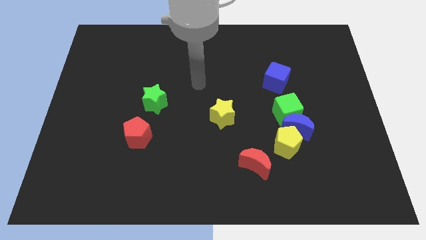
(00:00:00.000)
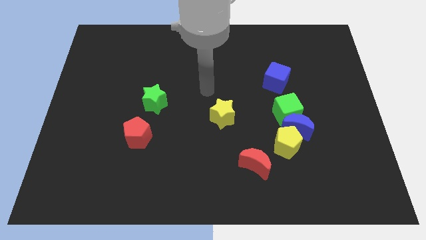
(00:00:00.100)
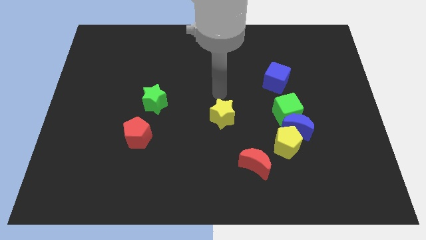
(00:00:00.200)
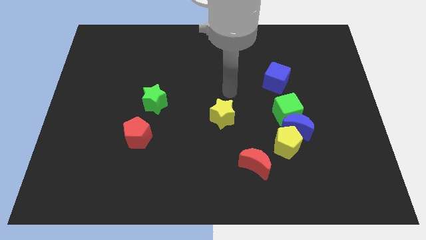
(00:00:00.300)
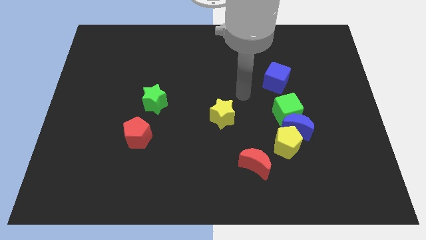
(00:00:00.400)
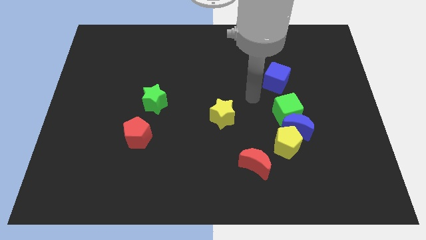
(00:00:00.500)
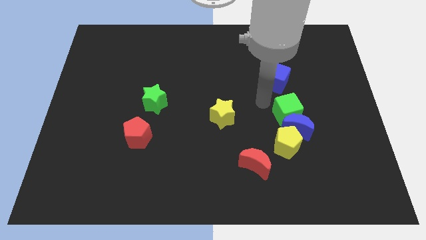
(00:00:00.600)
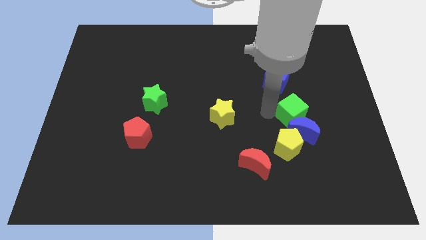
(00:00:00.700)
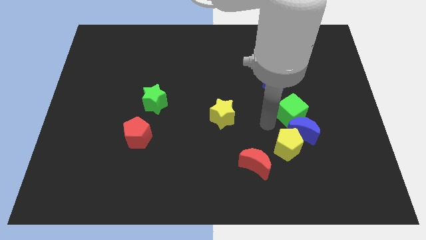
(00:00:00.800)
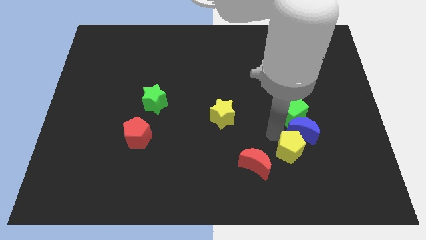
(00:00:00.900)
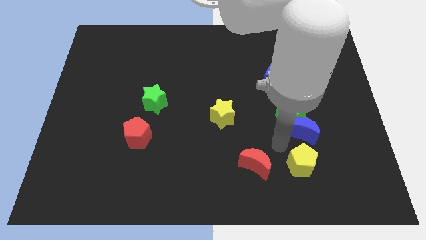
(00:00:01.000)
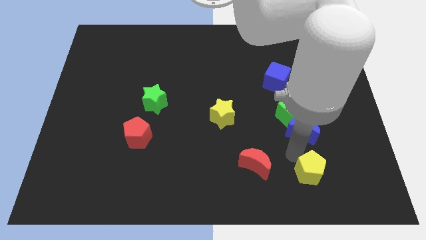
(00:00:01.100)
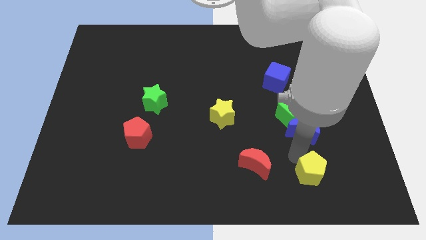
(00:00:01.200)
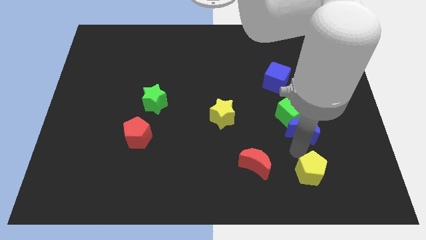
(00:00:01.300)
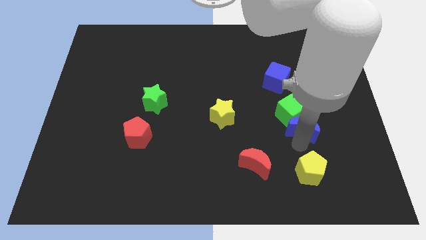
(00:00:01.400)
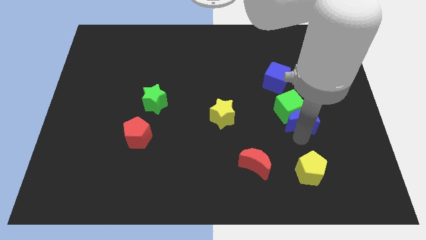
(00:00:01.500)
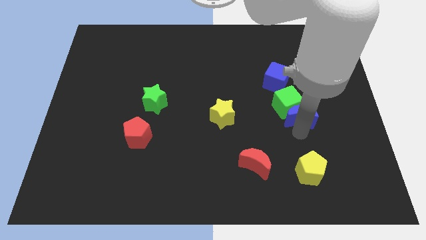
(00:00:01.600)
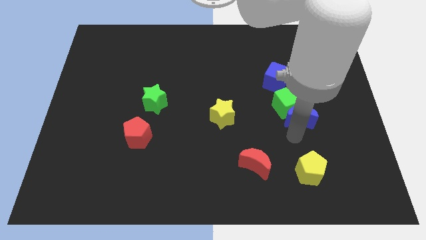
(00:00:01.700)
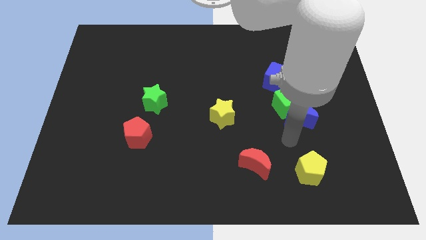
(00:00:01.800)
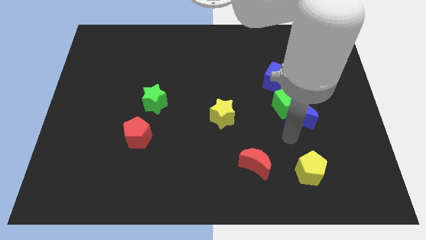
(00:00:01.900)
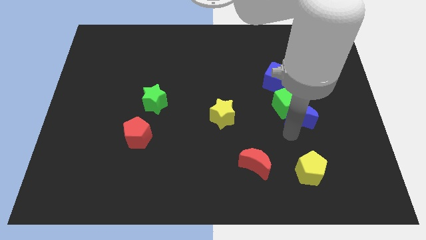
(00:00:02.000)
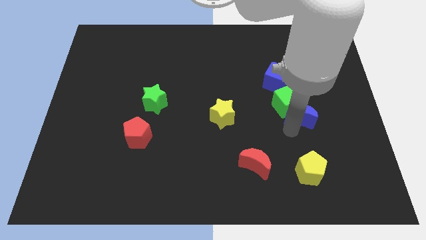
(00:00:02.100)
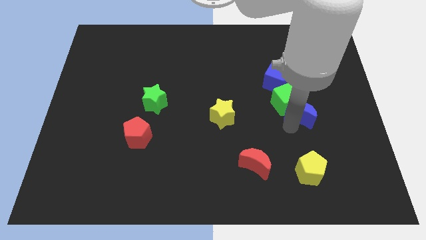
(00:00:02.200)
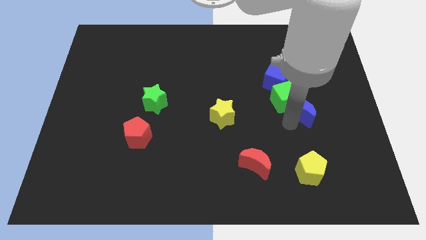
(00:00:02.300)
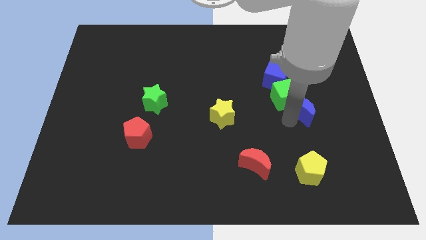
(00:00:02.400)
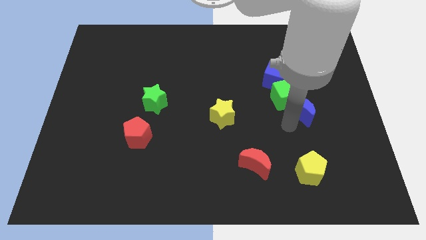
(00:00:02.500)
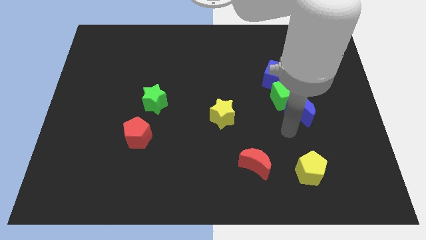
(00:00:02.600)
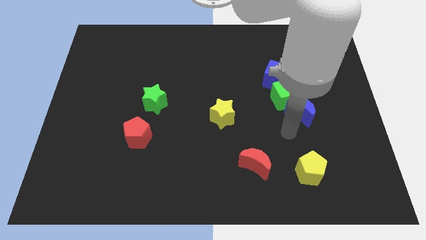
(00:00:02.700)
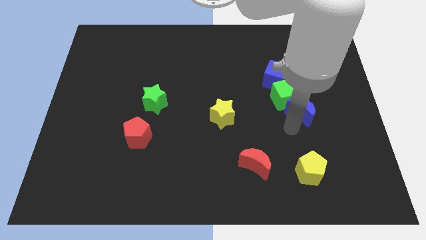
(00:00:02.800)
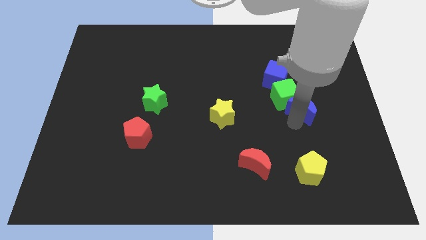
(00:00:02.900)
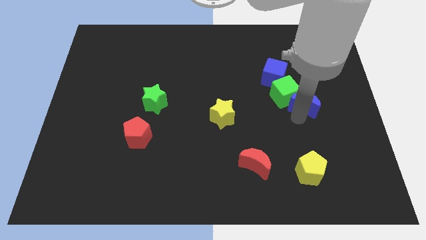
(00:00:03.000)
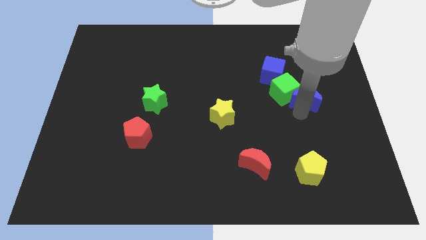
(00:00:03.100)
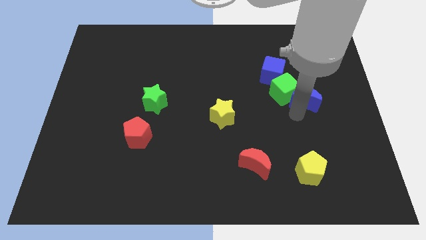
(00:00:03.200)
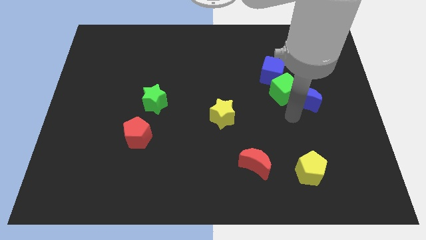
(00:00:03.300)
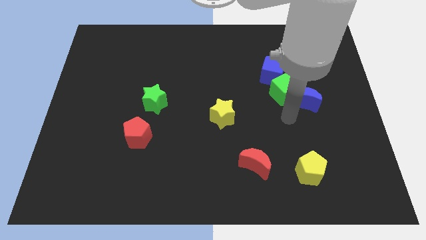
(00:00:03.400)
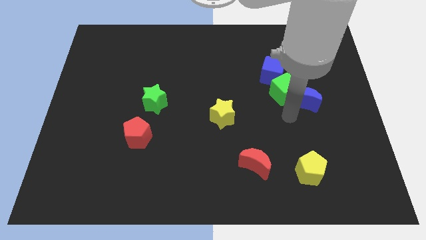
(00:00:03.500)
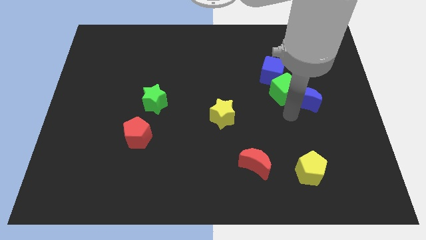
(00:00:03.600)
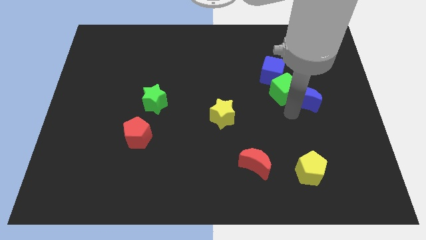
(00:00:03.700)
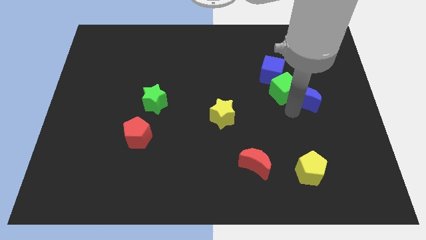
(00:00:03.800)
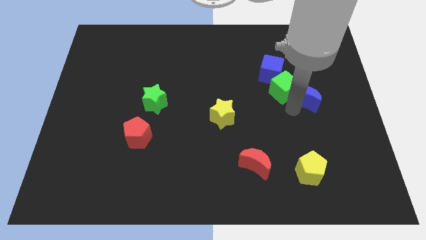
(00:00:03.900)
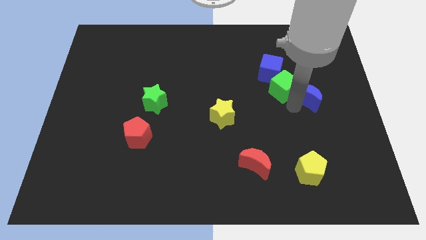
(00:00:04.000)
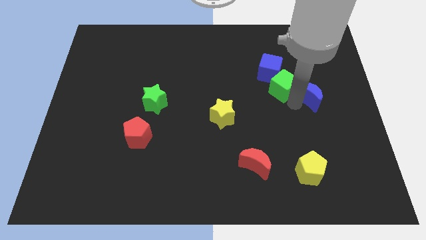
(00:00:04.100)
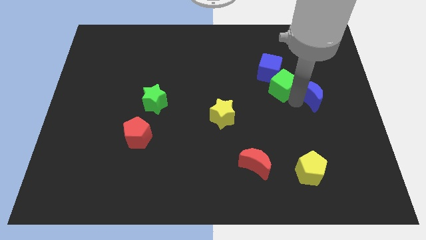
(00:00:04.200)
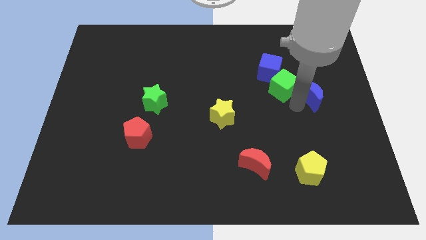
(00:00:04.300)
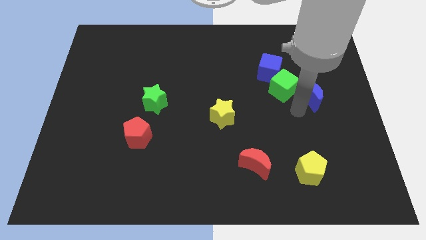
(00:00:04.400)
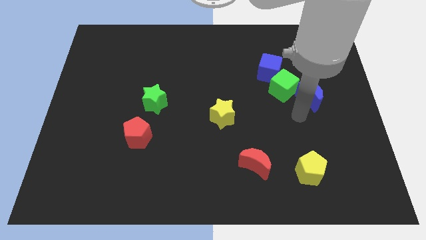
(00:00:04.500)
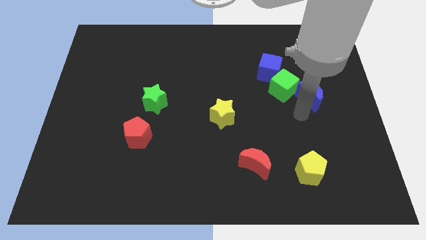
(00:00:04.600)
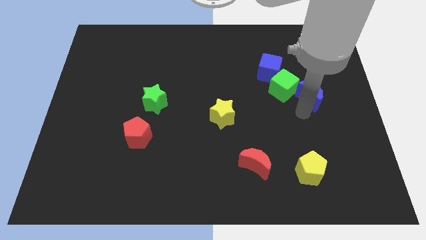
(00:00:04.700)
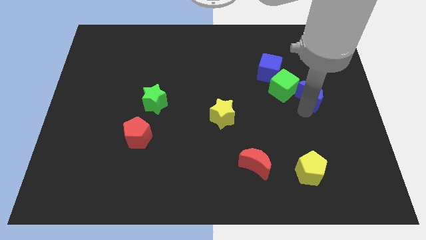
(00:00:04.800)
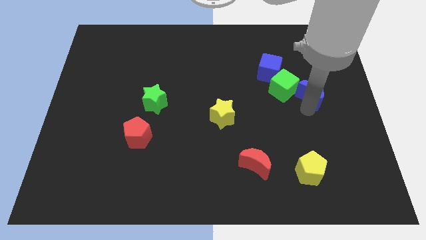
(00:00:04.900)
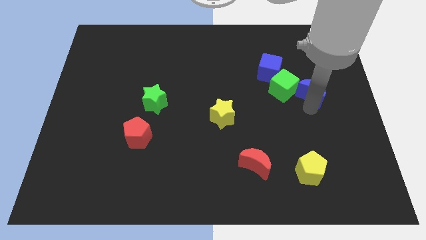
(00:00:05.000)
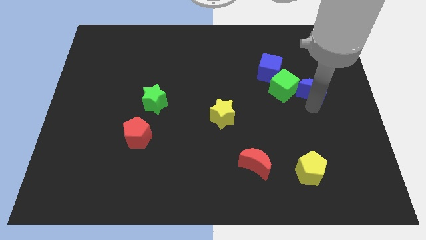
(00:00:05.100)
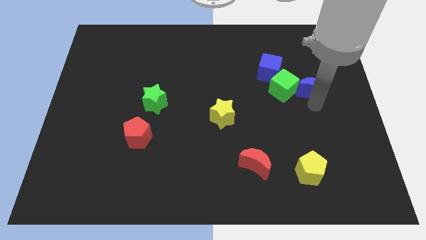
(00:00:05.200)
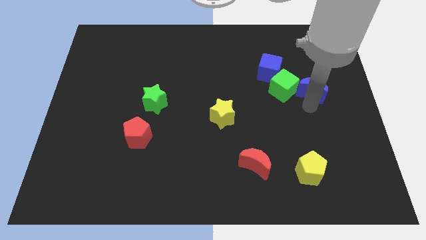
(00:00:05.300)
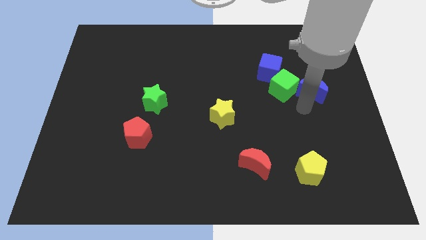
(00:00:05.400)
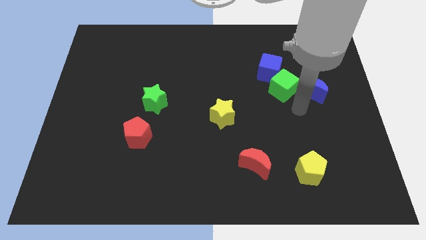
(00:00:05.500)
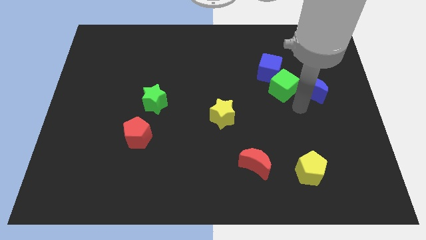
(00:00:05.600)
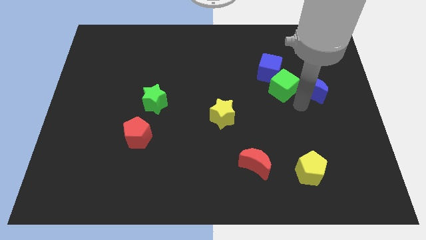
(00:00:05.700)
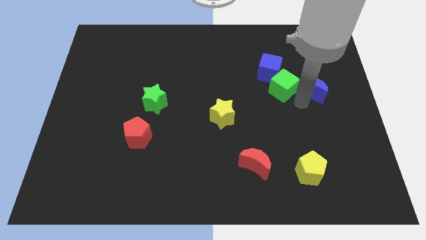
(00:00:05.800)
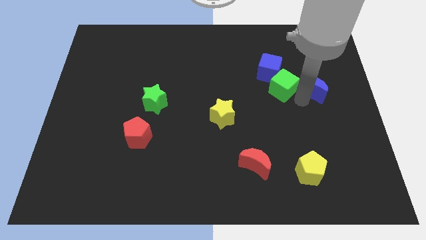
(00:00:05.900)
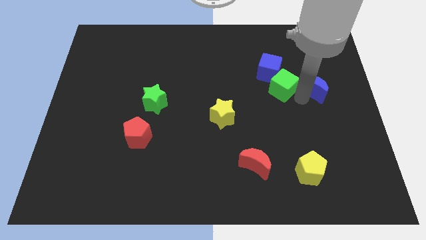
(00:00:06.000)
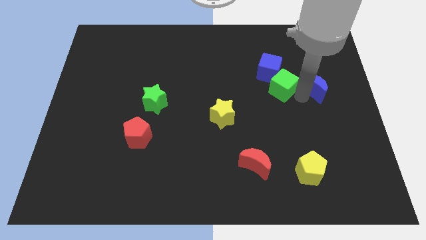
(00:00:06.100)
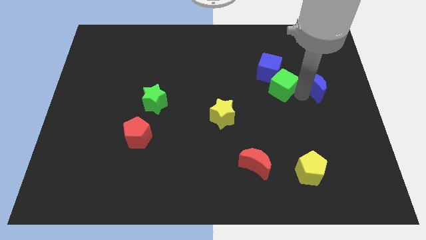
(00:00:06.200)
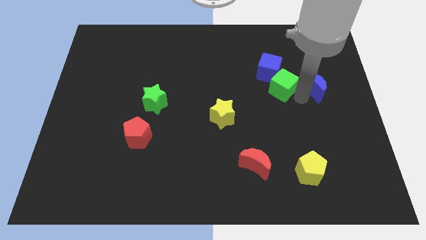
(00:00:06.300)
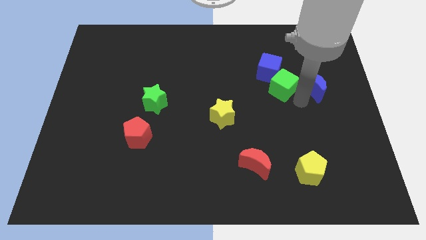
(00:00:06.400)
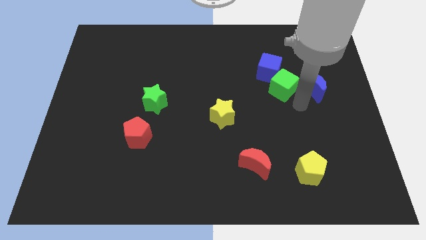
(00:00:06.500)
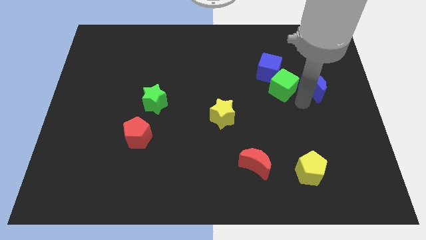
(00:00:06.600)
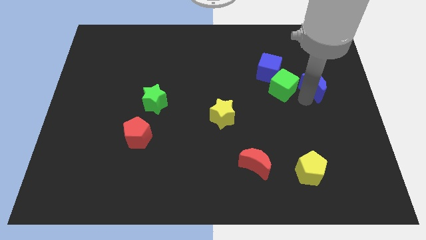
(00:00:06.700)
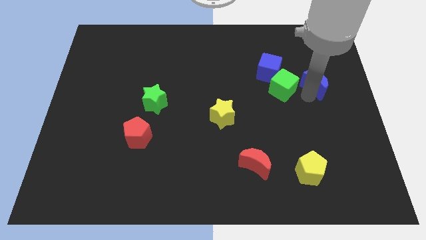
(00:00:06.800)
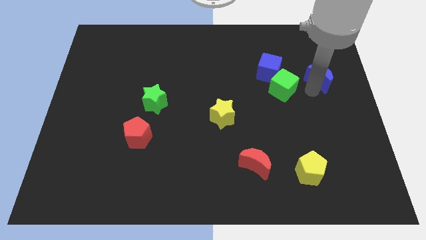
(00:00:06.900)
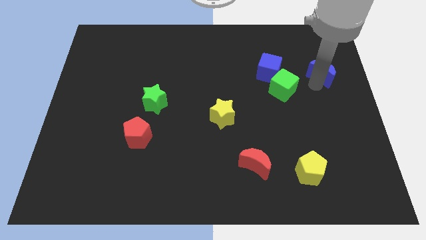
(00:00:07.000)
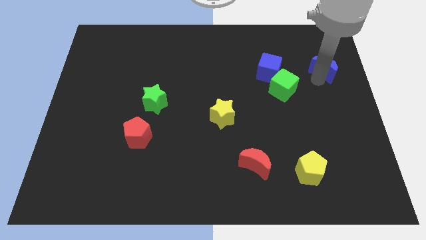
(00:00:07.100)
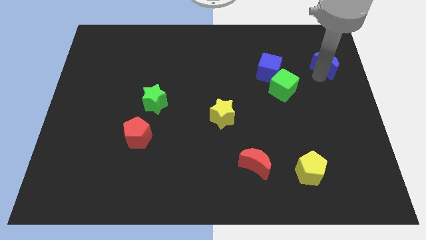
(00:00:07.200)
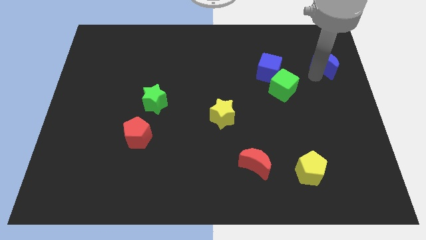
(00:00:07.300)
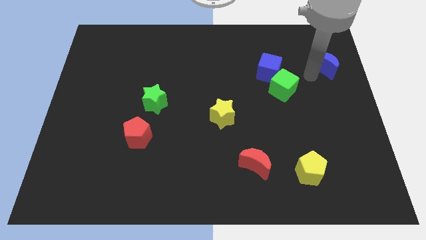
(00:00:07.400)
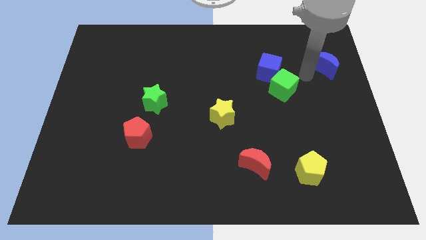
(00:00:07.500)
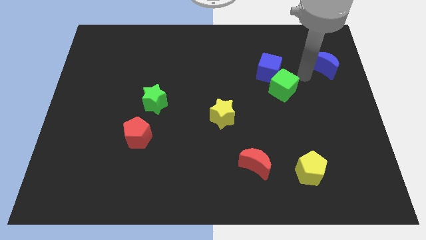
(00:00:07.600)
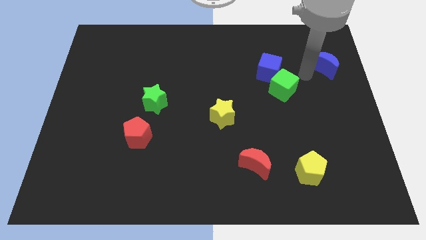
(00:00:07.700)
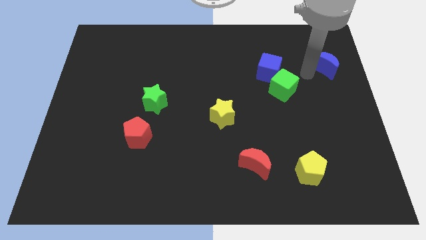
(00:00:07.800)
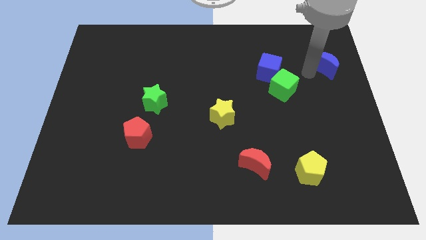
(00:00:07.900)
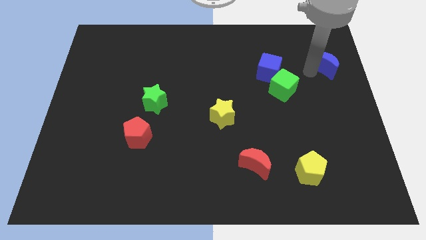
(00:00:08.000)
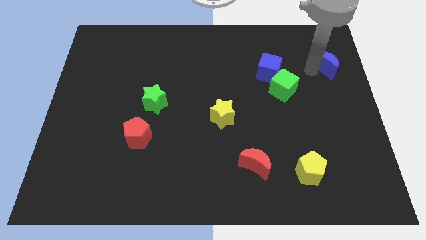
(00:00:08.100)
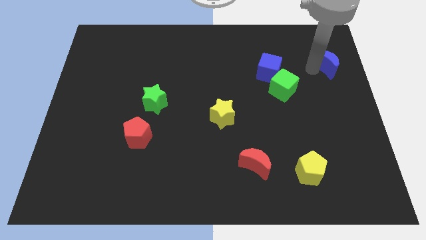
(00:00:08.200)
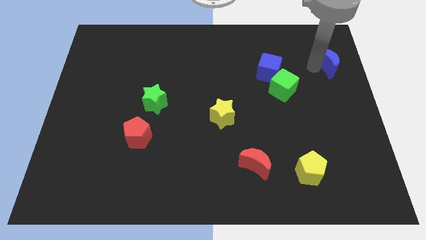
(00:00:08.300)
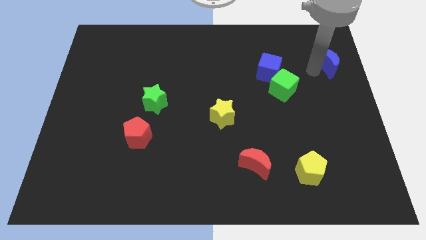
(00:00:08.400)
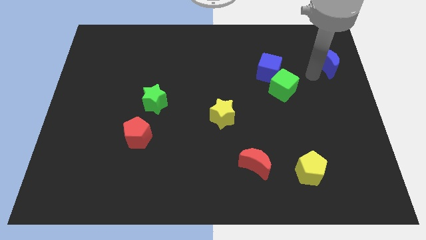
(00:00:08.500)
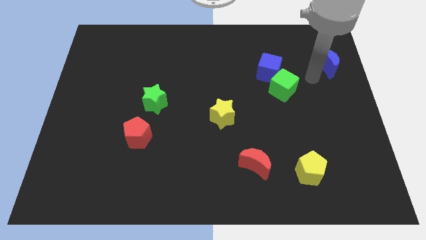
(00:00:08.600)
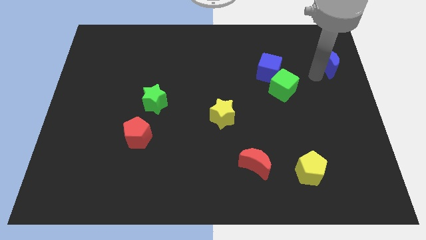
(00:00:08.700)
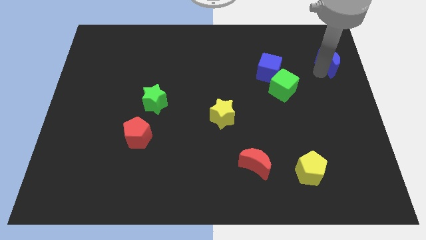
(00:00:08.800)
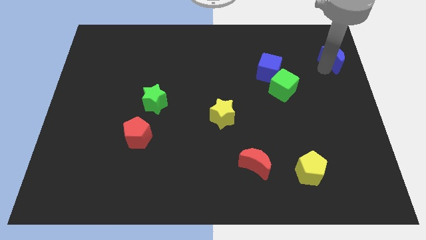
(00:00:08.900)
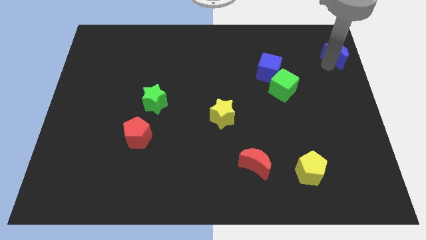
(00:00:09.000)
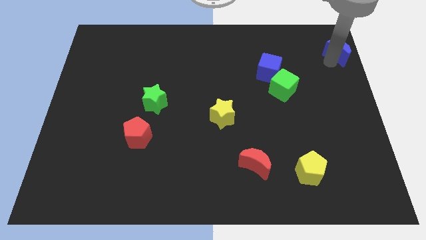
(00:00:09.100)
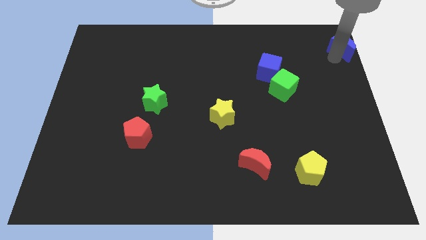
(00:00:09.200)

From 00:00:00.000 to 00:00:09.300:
put the blue moon to the top right corner
